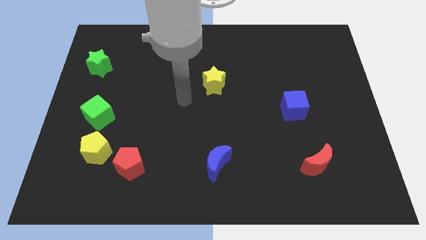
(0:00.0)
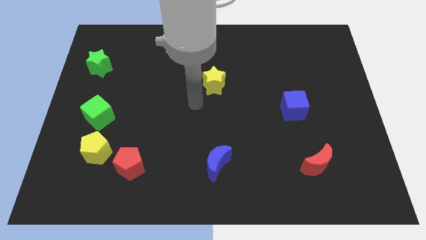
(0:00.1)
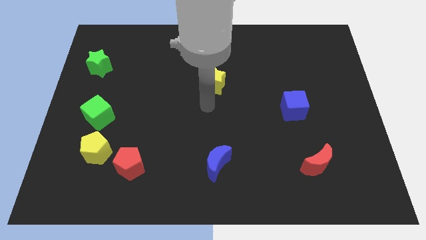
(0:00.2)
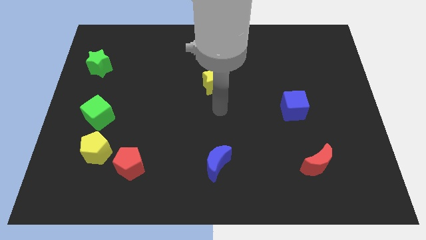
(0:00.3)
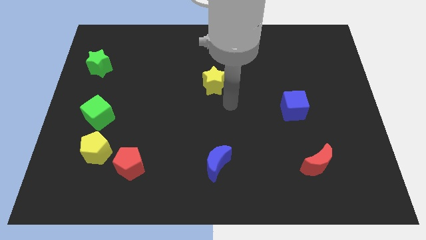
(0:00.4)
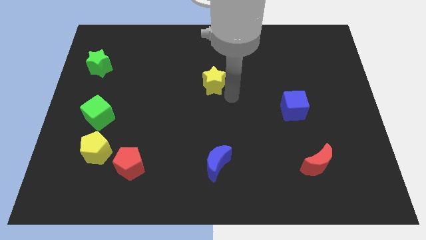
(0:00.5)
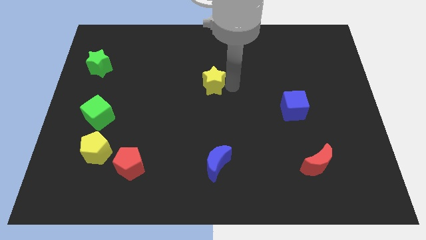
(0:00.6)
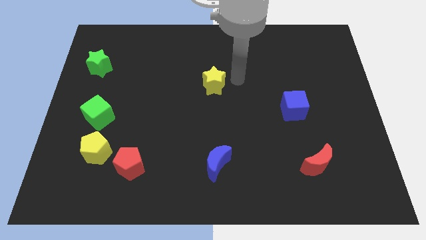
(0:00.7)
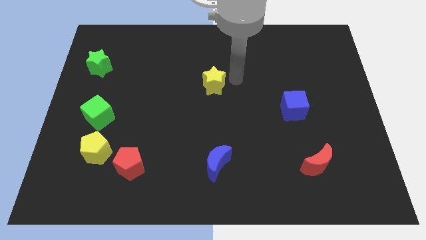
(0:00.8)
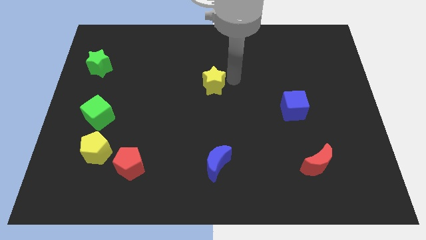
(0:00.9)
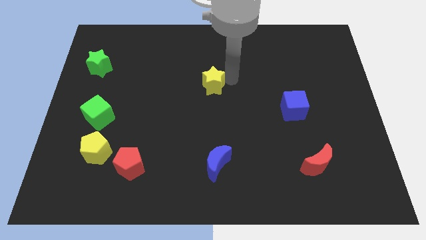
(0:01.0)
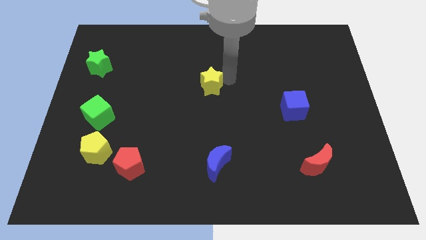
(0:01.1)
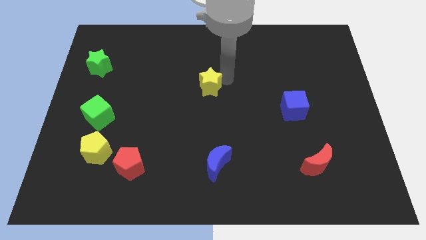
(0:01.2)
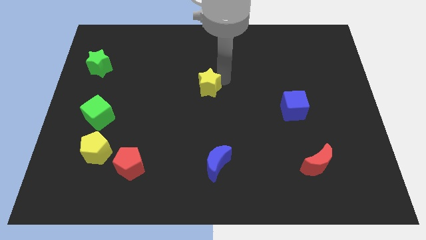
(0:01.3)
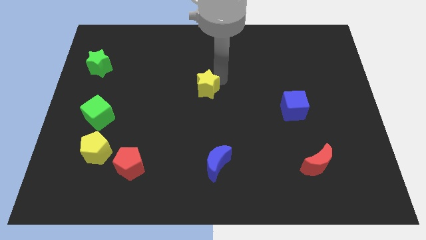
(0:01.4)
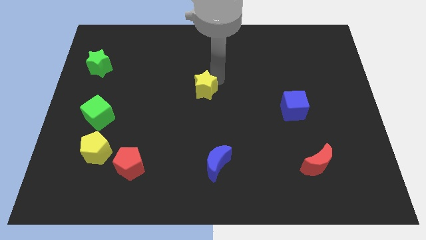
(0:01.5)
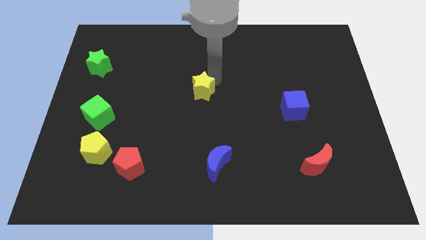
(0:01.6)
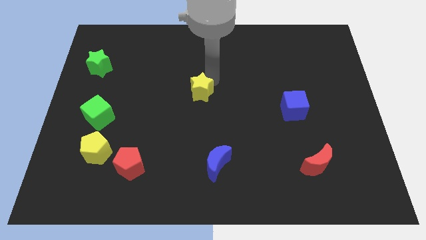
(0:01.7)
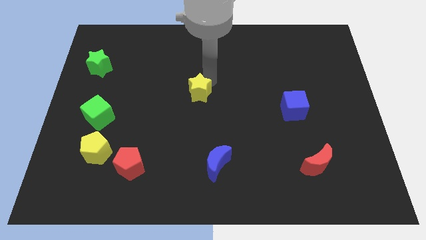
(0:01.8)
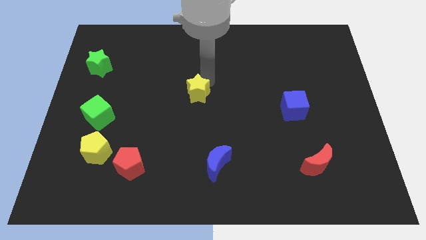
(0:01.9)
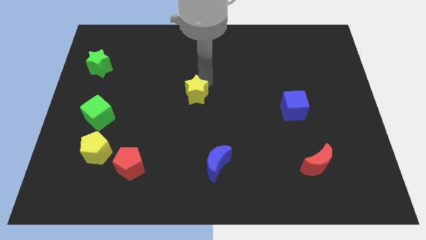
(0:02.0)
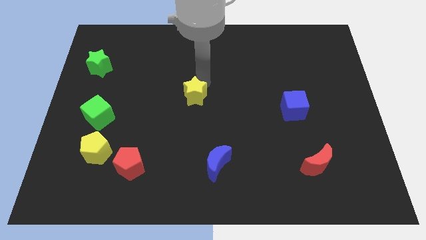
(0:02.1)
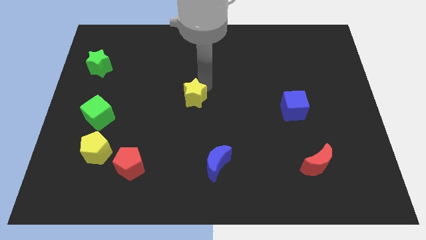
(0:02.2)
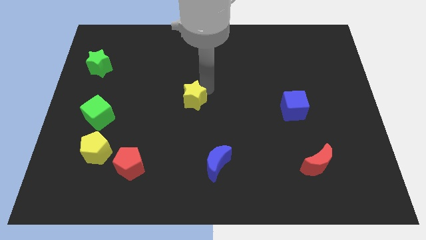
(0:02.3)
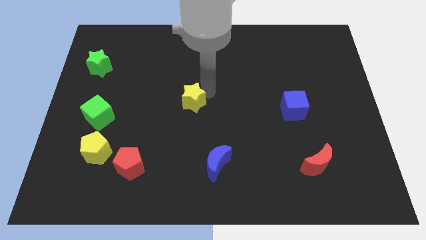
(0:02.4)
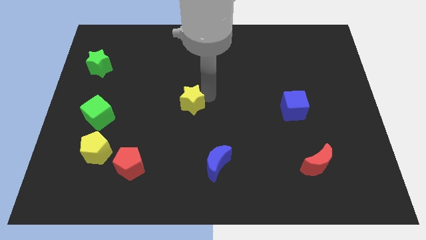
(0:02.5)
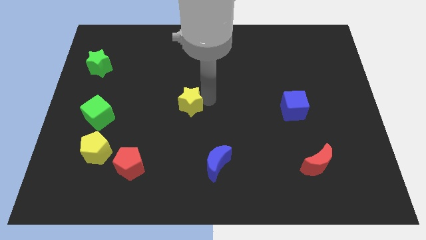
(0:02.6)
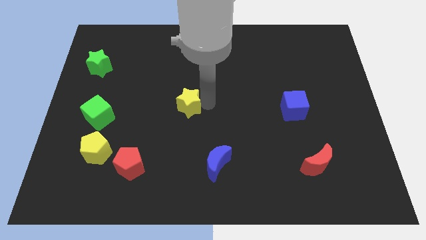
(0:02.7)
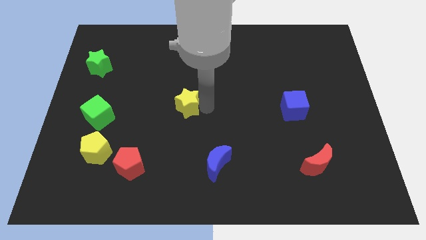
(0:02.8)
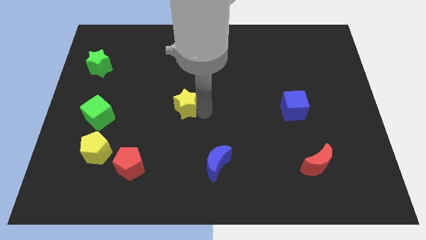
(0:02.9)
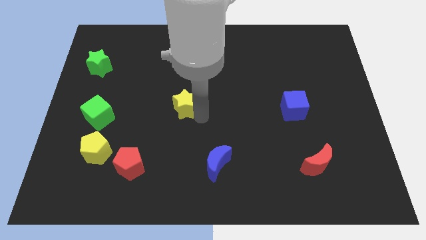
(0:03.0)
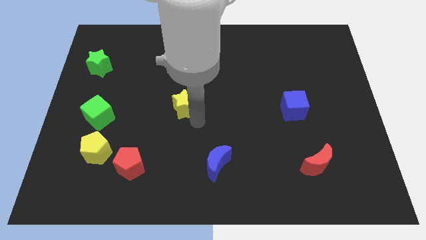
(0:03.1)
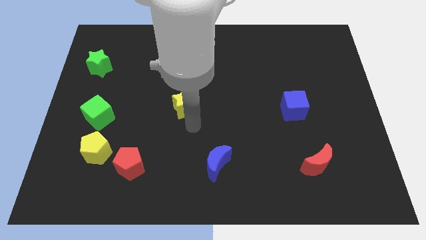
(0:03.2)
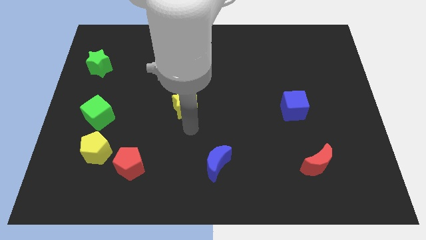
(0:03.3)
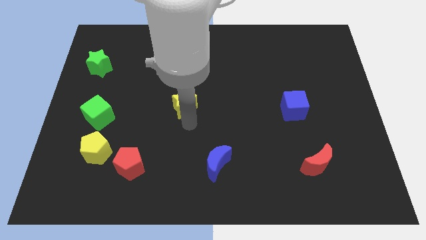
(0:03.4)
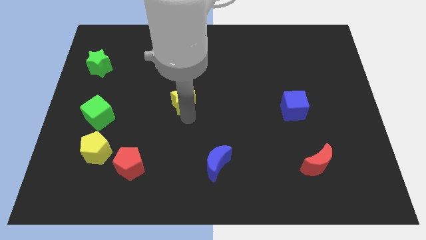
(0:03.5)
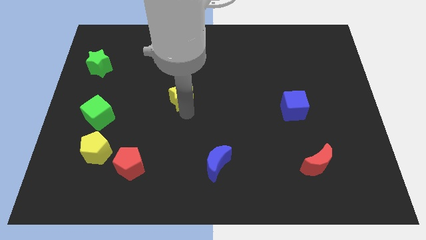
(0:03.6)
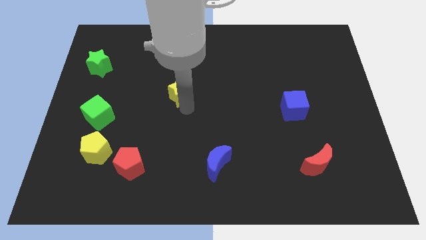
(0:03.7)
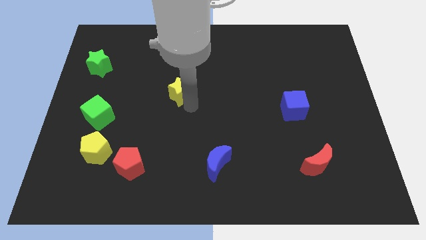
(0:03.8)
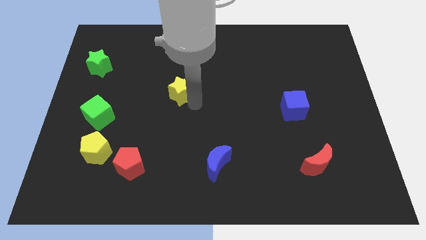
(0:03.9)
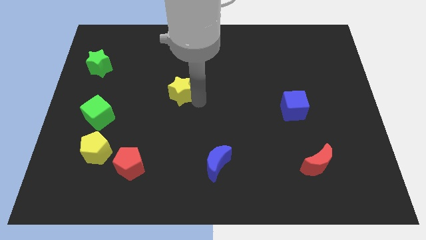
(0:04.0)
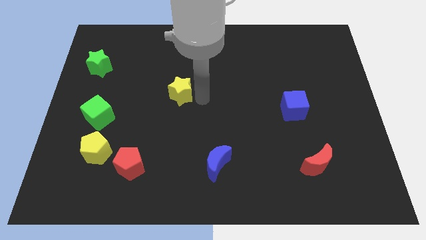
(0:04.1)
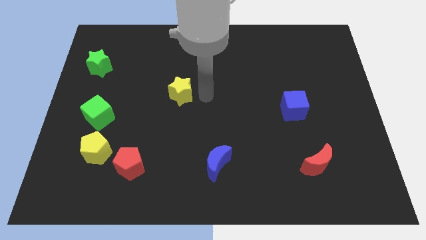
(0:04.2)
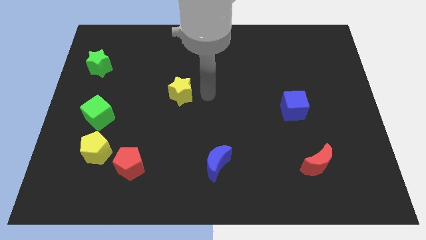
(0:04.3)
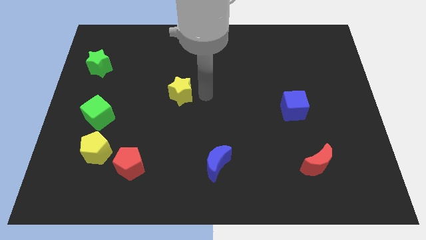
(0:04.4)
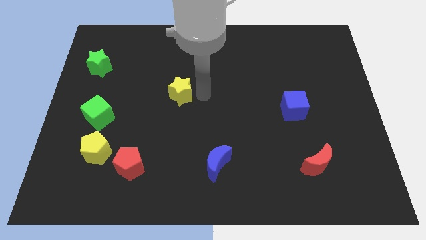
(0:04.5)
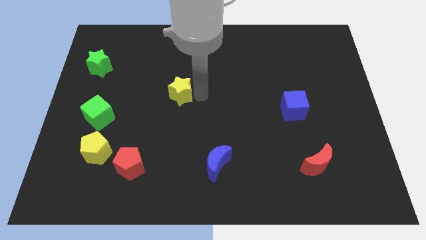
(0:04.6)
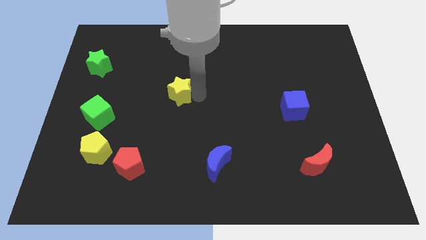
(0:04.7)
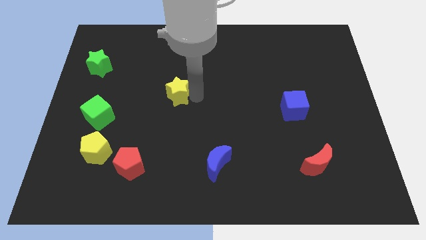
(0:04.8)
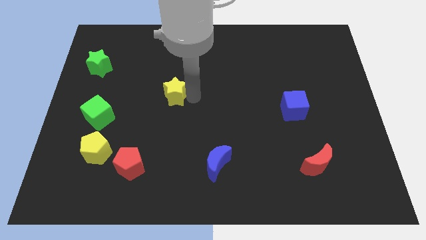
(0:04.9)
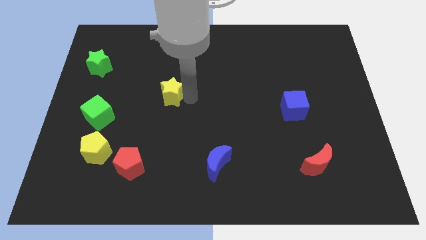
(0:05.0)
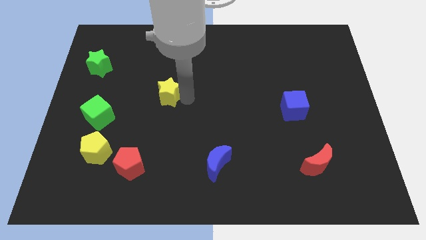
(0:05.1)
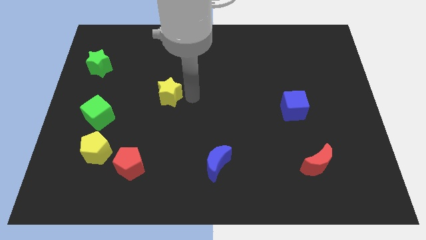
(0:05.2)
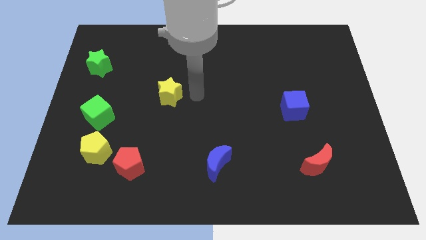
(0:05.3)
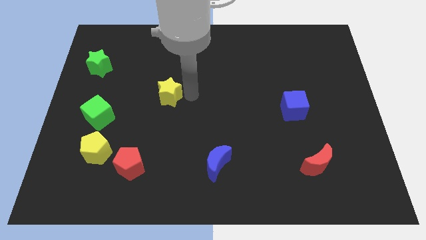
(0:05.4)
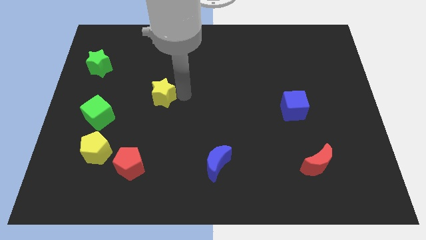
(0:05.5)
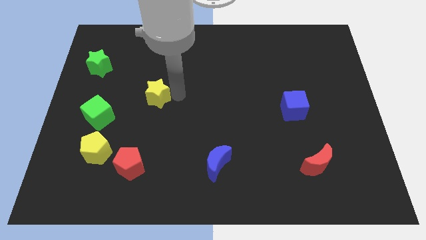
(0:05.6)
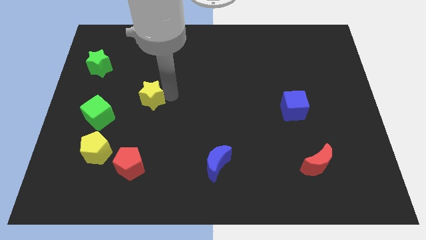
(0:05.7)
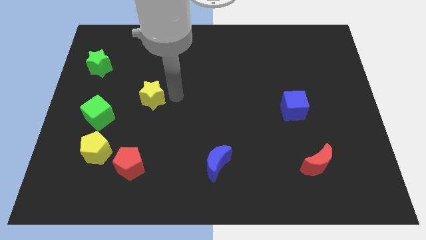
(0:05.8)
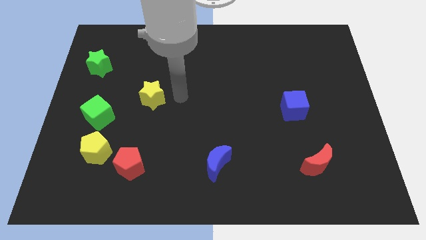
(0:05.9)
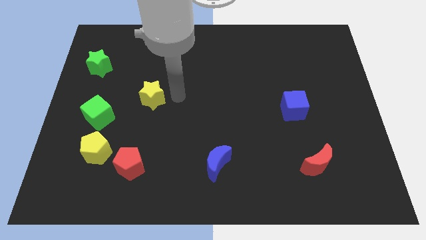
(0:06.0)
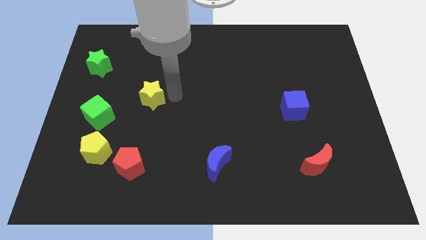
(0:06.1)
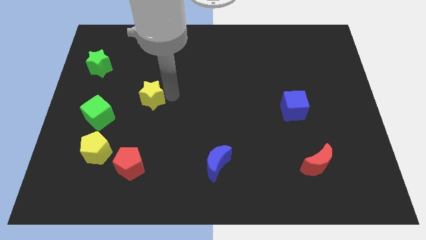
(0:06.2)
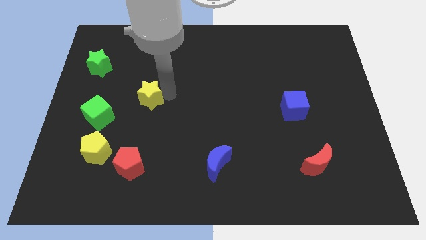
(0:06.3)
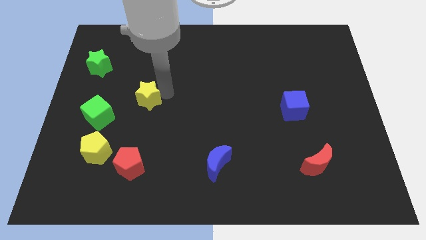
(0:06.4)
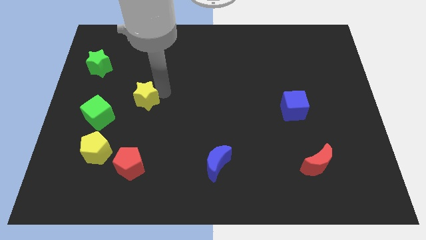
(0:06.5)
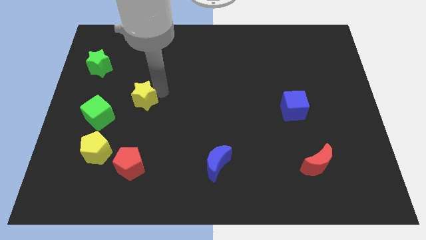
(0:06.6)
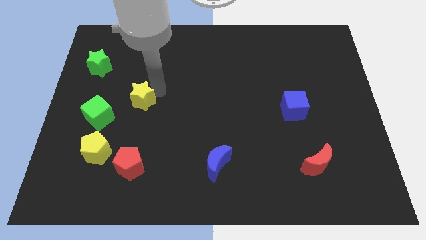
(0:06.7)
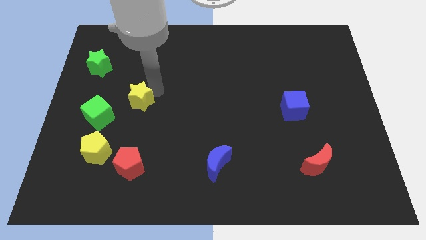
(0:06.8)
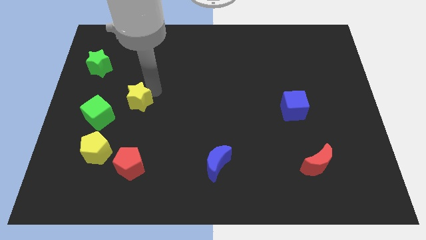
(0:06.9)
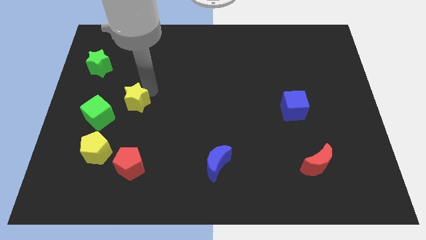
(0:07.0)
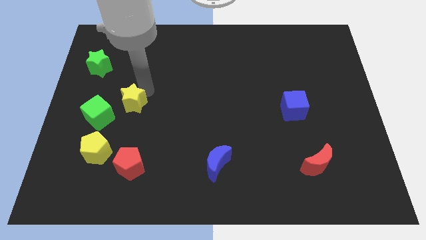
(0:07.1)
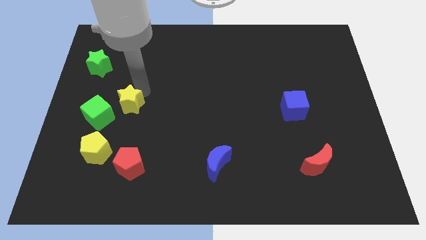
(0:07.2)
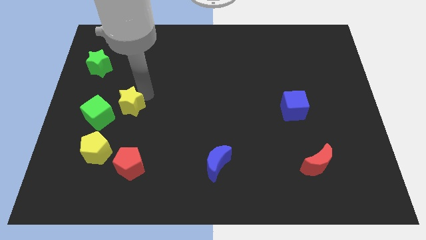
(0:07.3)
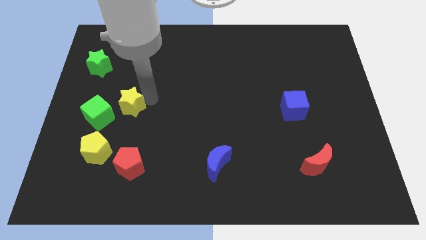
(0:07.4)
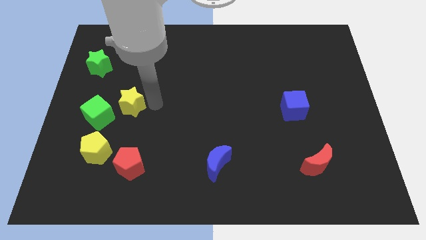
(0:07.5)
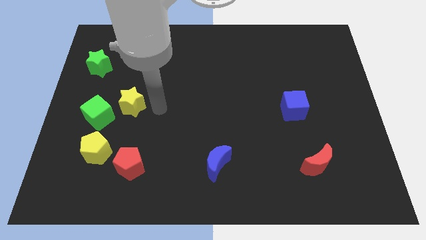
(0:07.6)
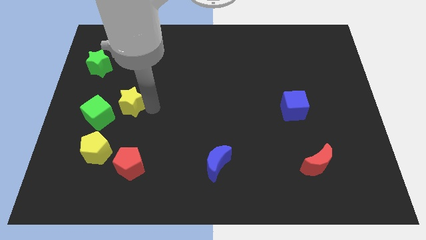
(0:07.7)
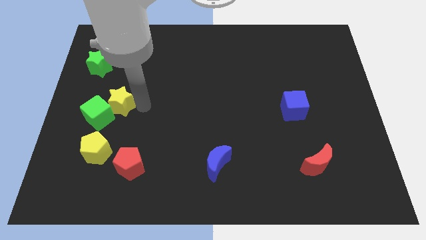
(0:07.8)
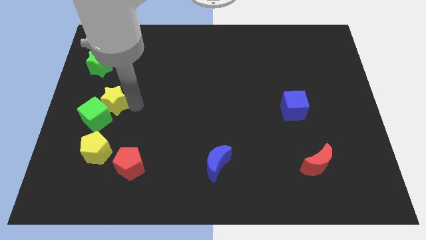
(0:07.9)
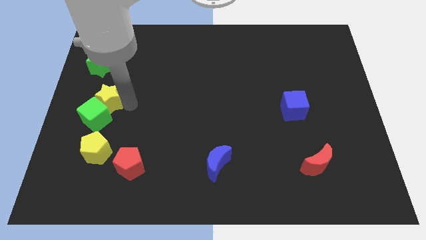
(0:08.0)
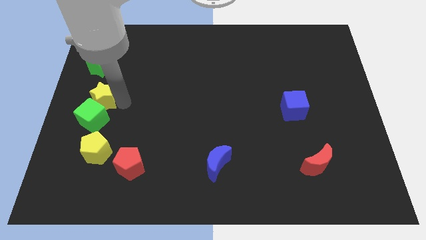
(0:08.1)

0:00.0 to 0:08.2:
move the yellow star to the left side
